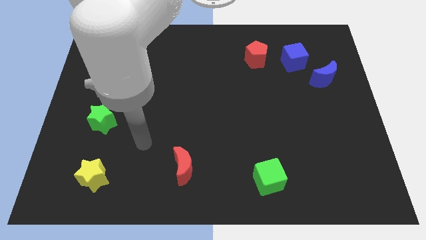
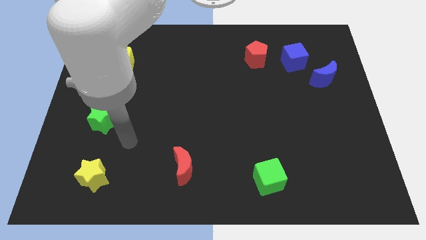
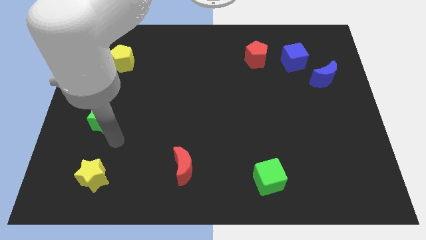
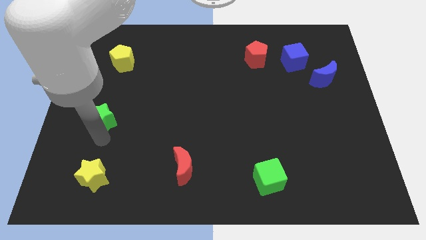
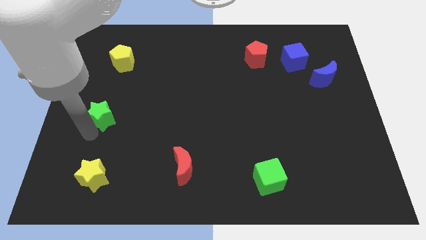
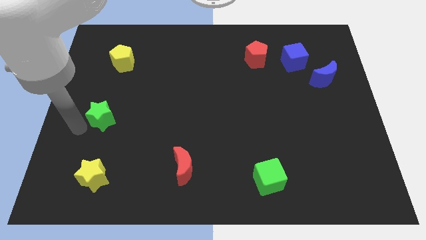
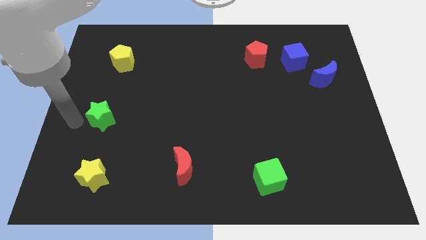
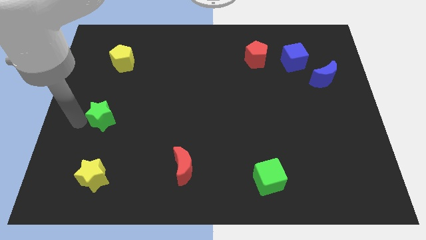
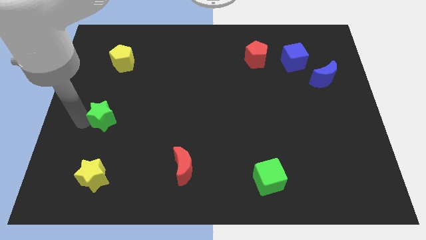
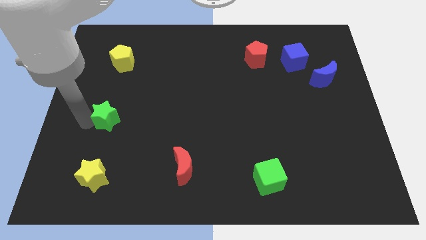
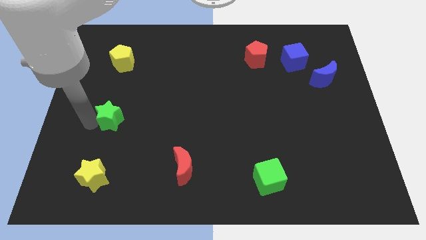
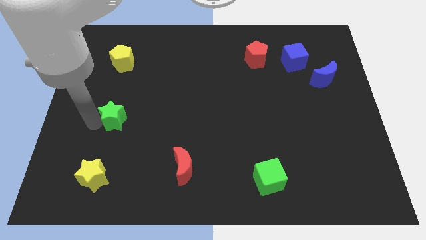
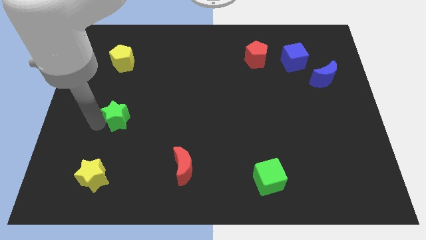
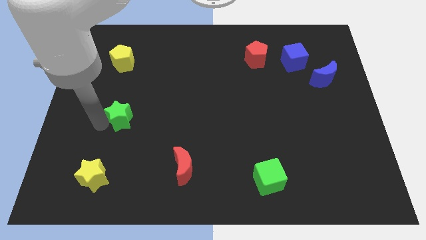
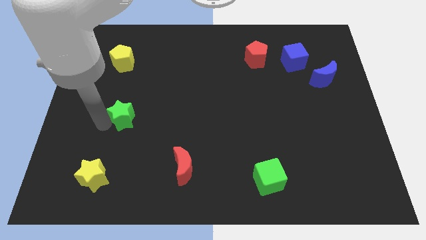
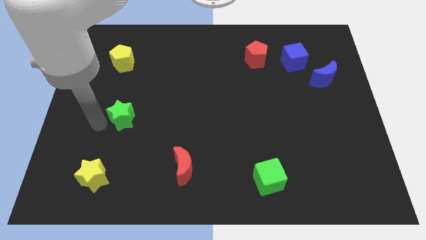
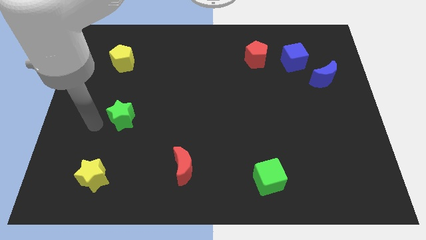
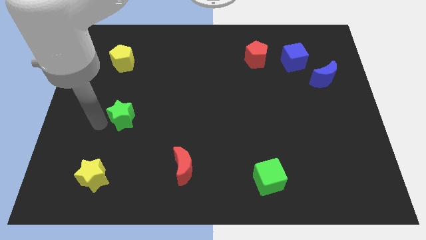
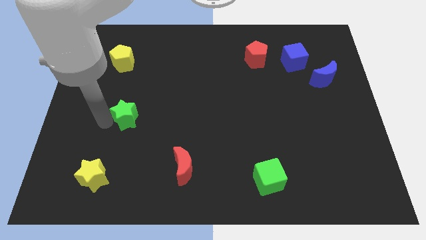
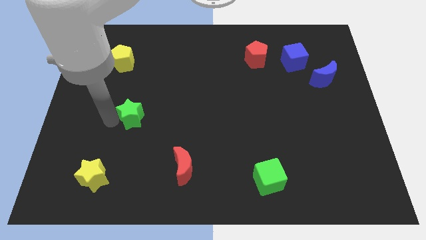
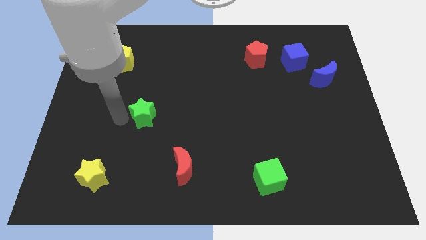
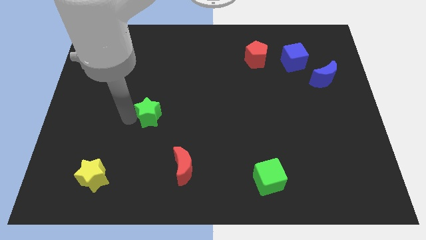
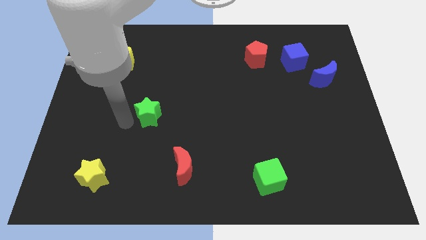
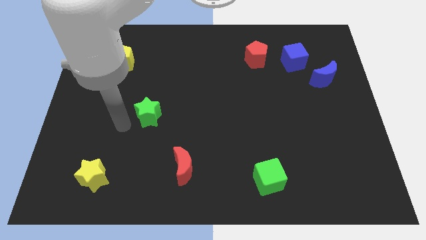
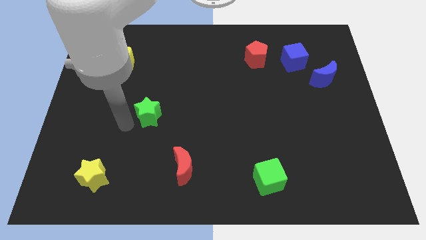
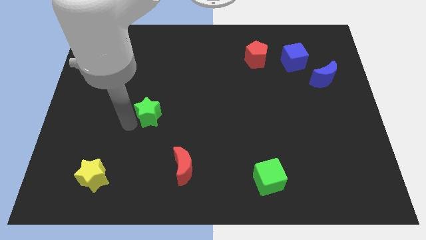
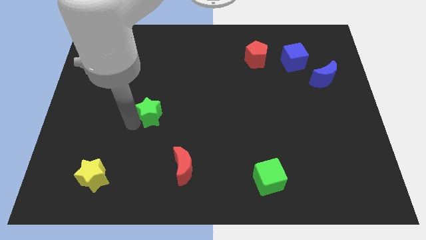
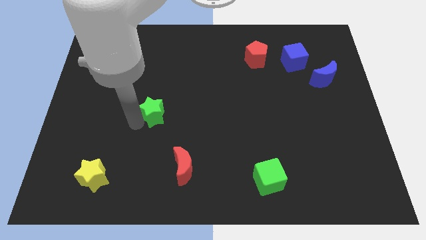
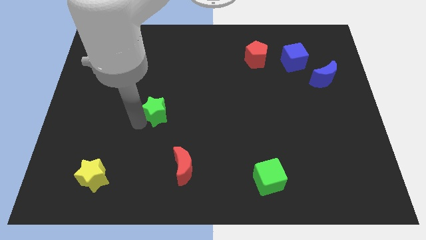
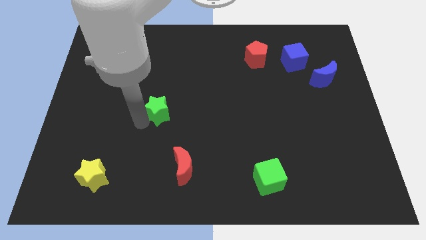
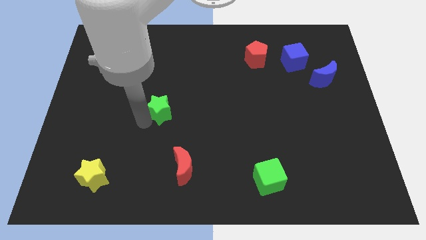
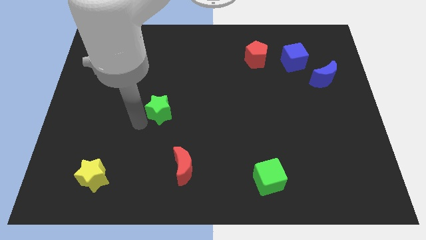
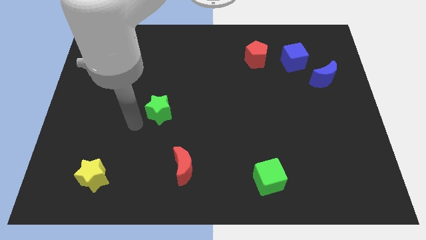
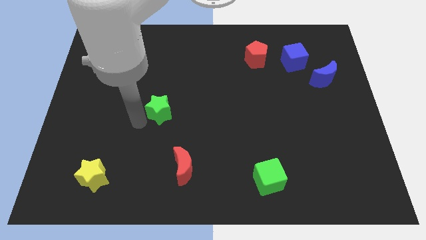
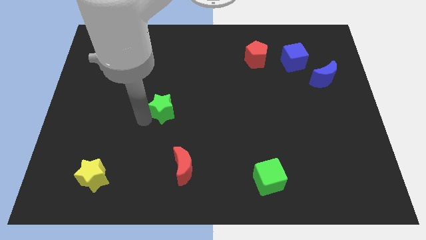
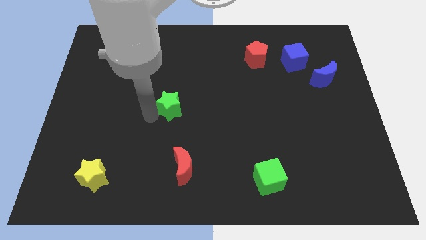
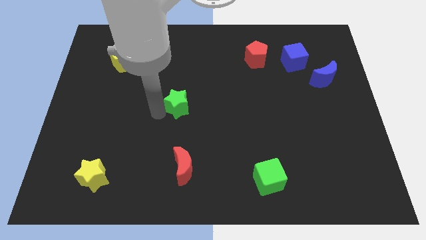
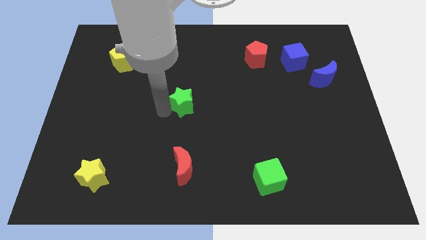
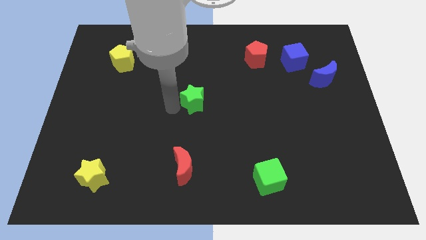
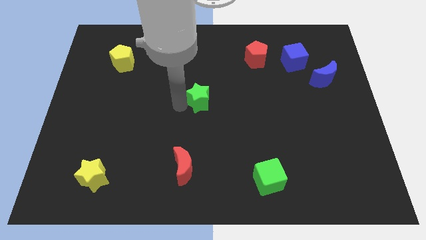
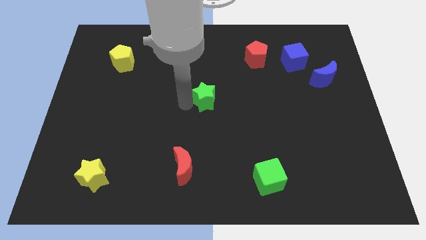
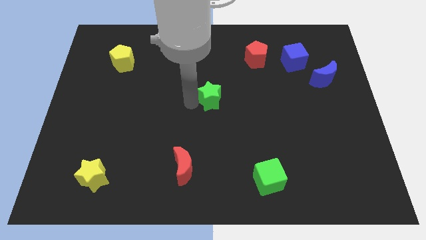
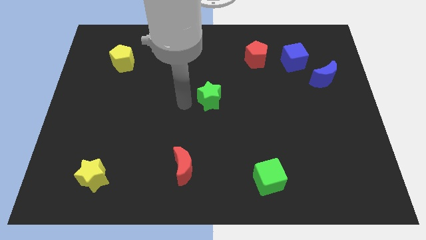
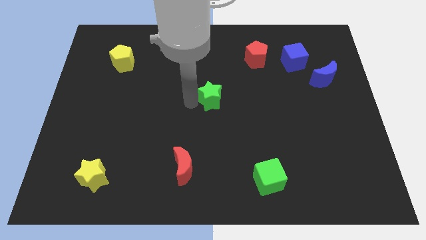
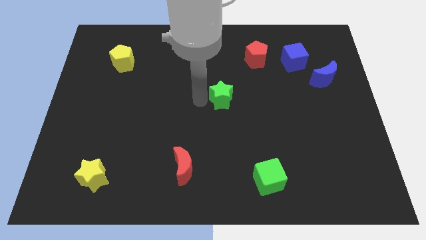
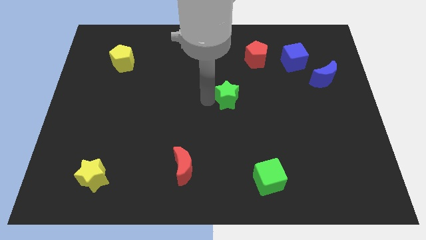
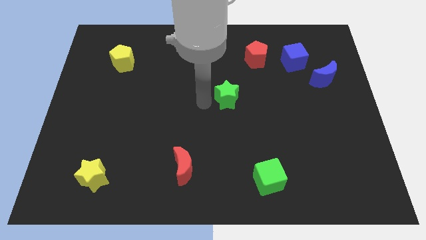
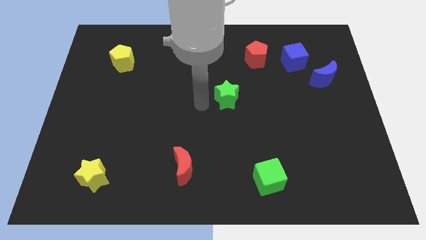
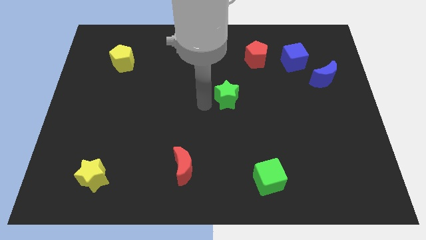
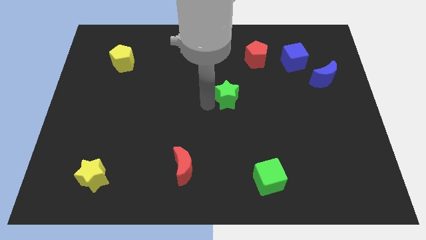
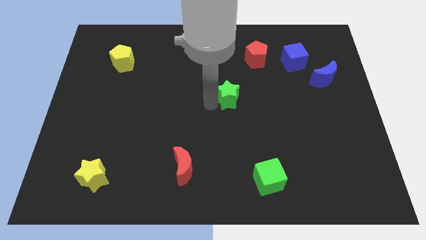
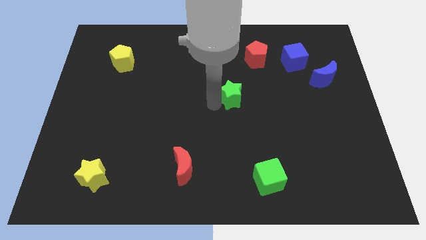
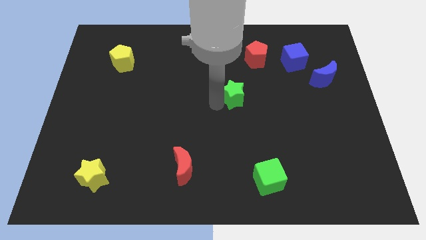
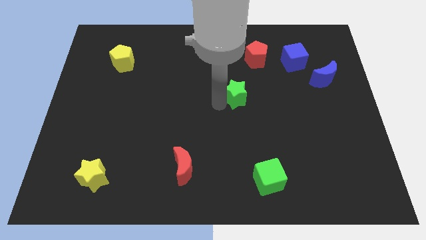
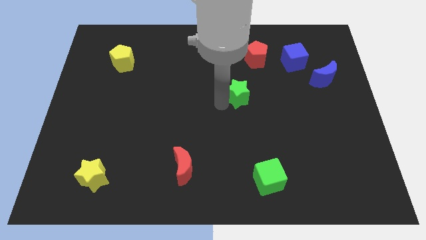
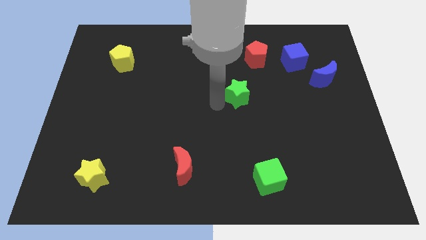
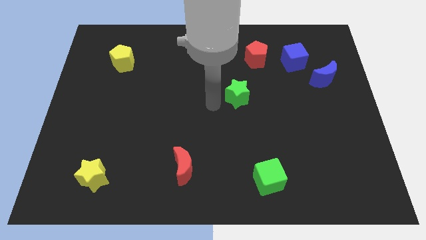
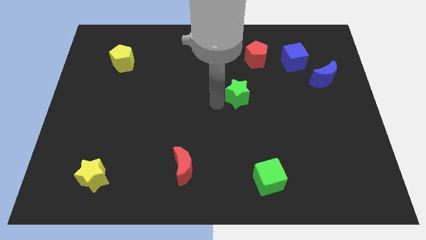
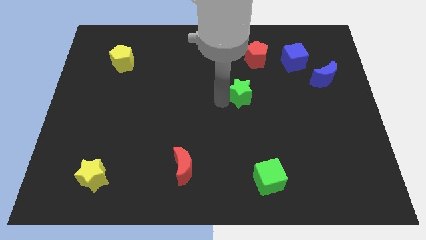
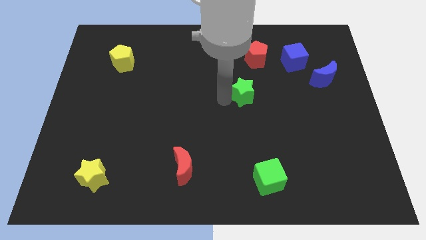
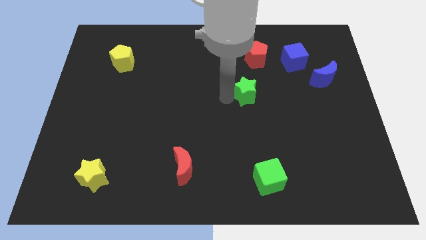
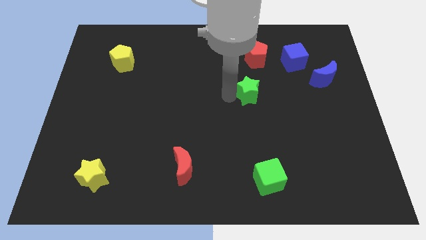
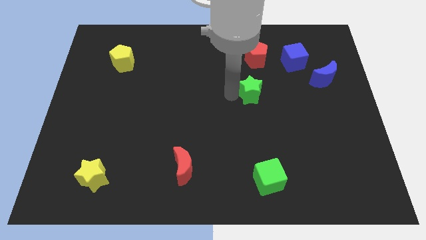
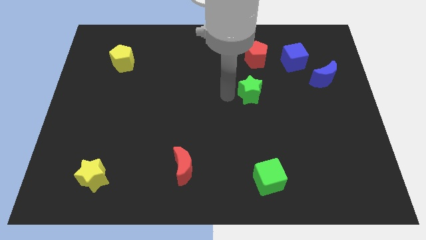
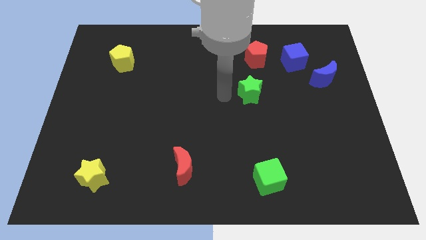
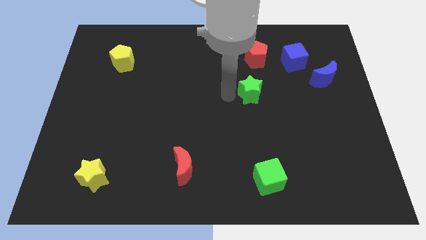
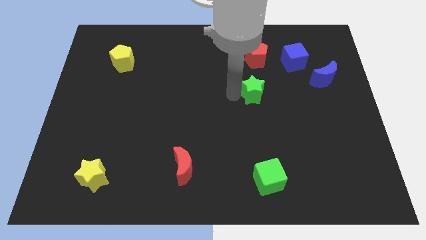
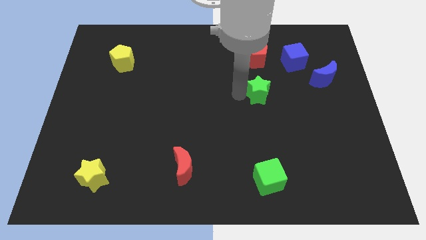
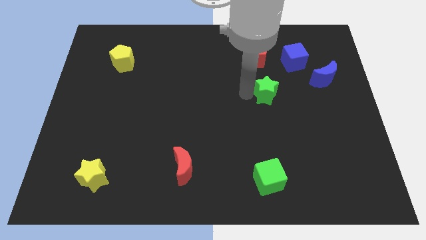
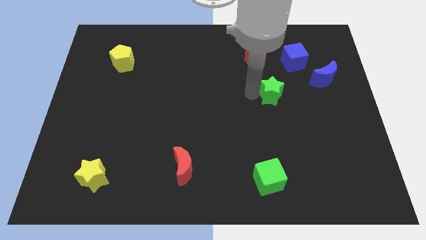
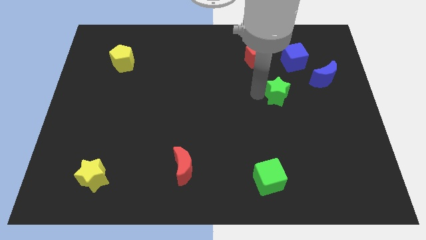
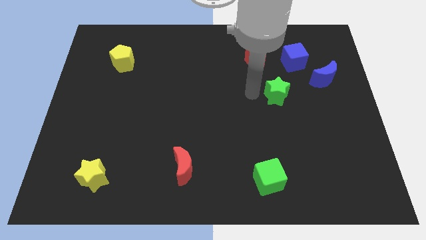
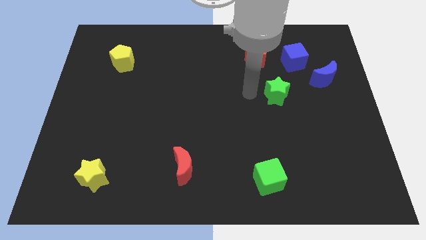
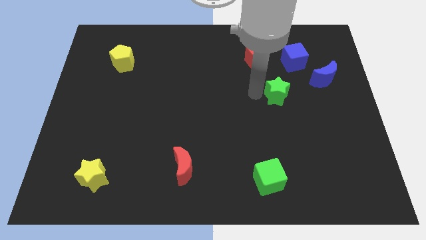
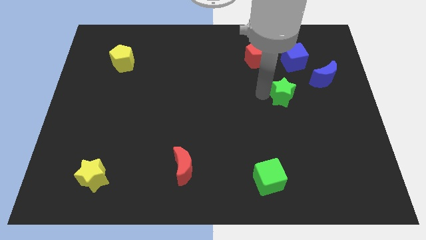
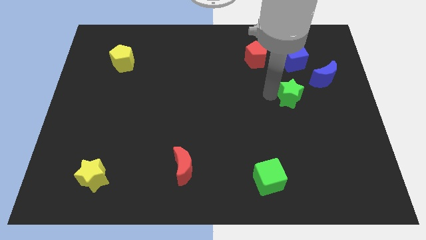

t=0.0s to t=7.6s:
slide the green star to the bottom left side of the blue moon
